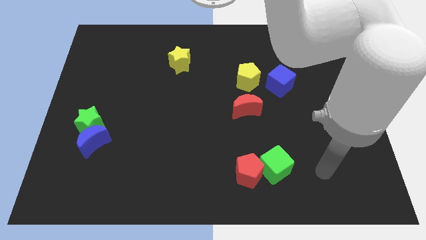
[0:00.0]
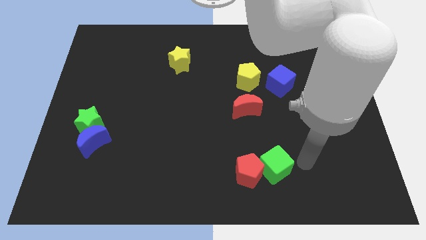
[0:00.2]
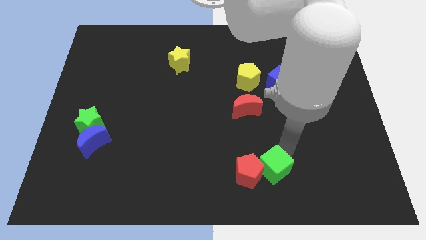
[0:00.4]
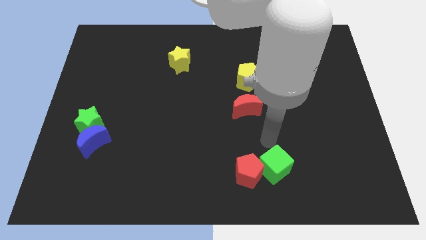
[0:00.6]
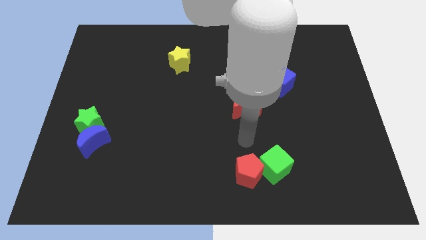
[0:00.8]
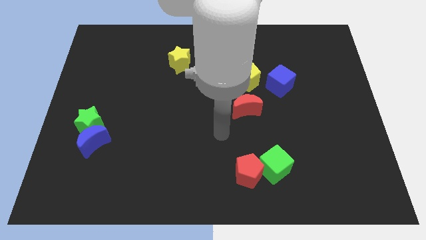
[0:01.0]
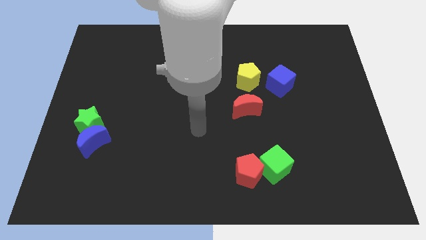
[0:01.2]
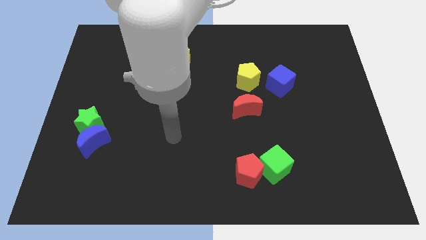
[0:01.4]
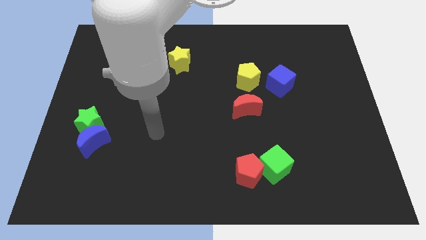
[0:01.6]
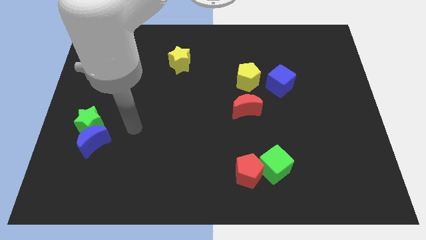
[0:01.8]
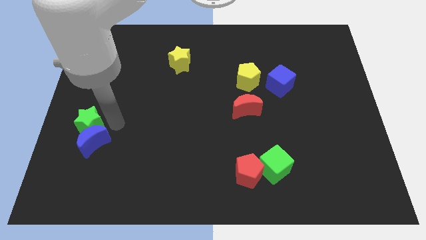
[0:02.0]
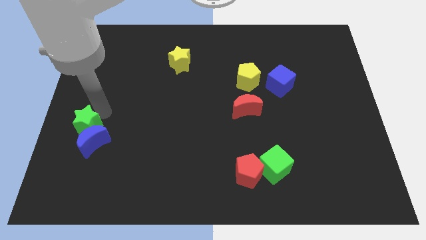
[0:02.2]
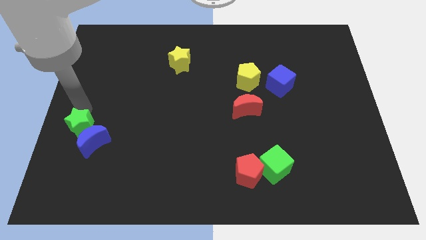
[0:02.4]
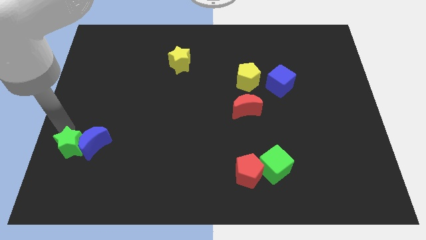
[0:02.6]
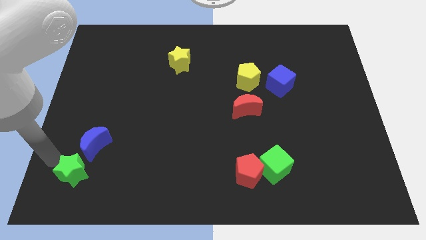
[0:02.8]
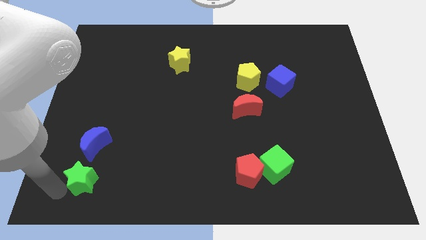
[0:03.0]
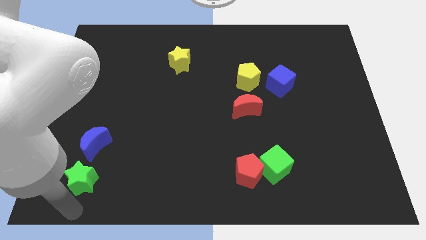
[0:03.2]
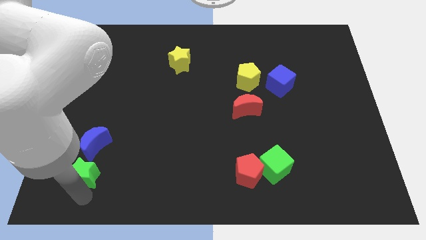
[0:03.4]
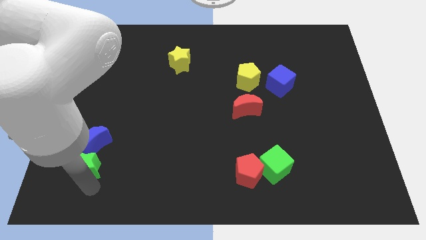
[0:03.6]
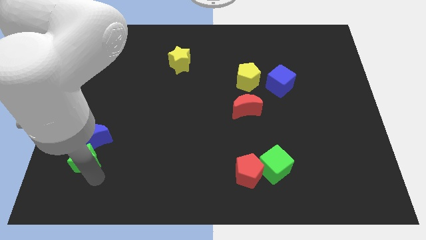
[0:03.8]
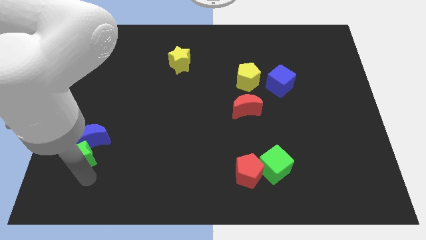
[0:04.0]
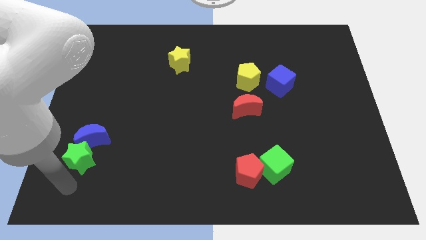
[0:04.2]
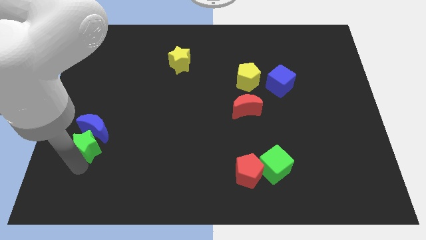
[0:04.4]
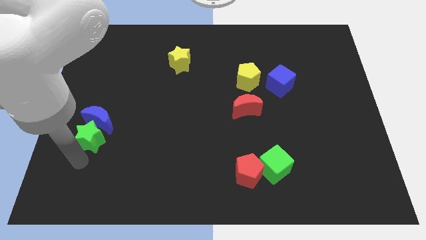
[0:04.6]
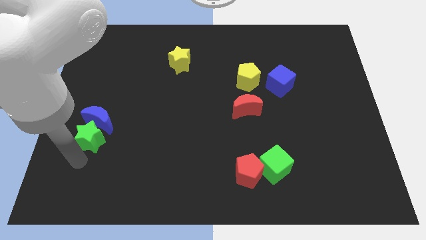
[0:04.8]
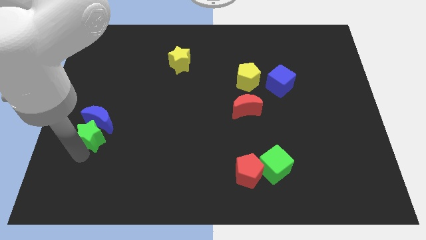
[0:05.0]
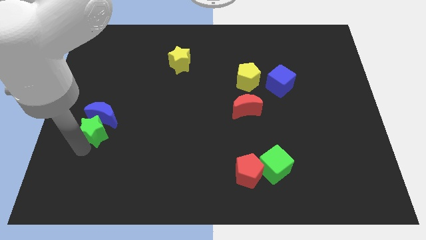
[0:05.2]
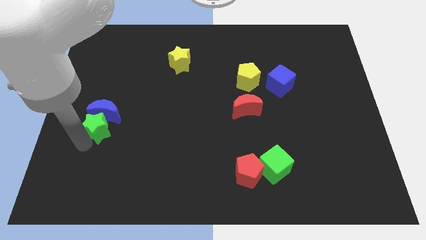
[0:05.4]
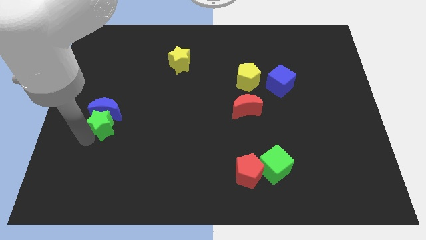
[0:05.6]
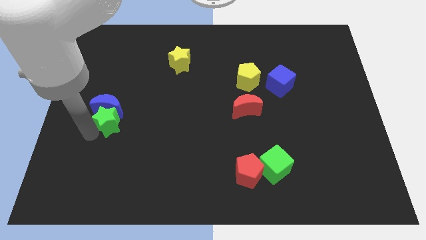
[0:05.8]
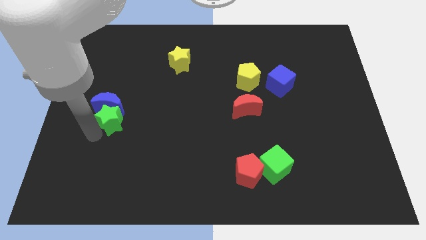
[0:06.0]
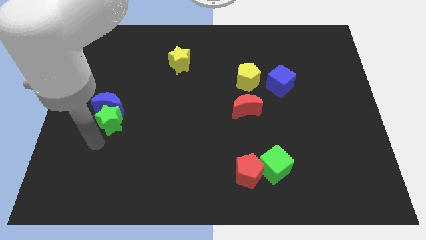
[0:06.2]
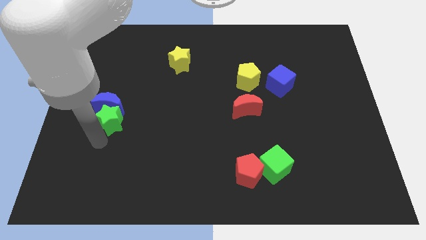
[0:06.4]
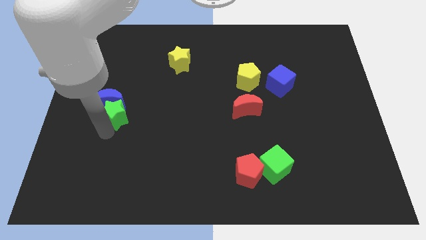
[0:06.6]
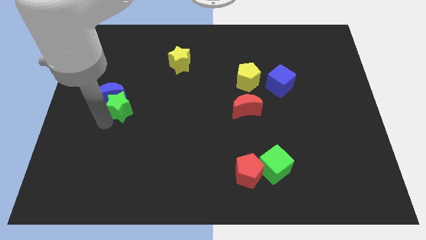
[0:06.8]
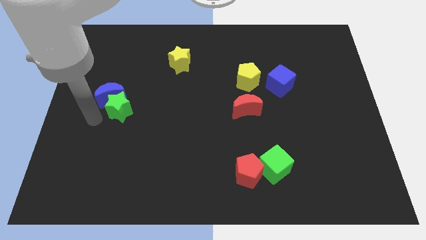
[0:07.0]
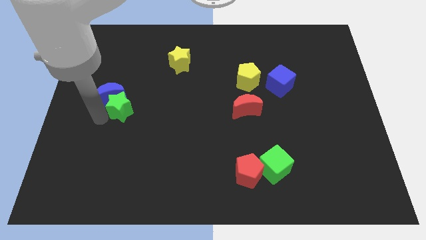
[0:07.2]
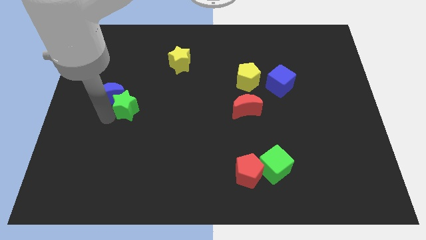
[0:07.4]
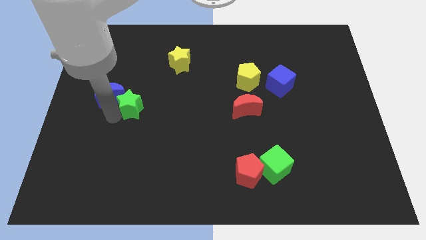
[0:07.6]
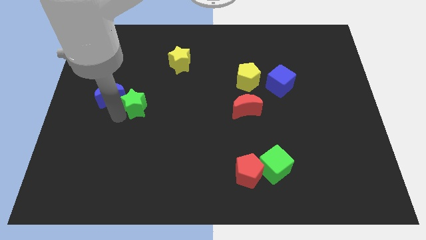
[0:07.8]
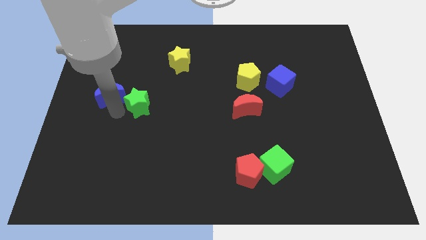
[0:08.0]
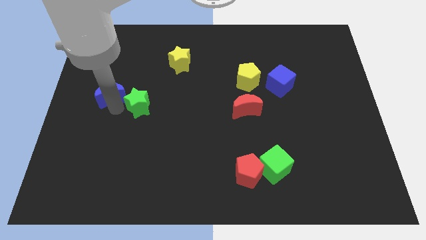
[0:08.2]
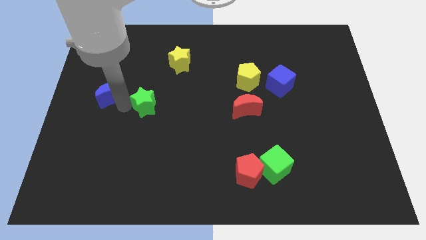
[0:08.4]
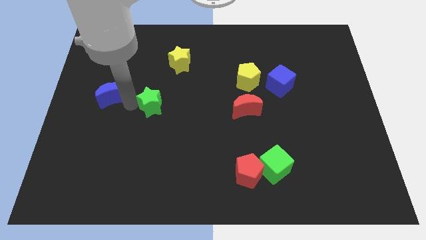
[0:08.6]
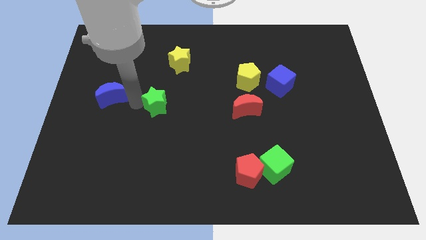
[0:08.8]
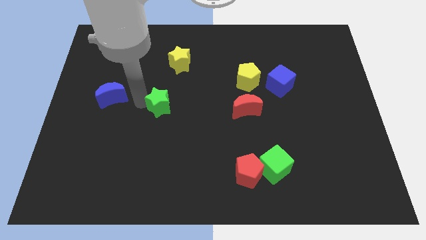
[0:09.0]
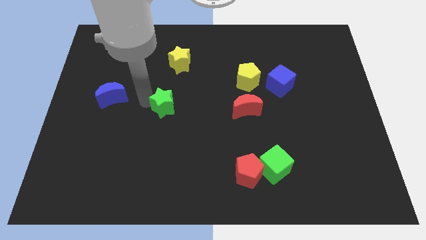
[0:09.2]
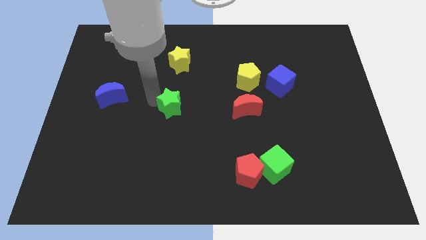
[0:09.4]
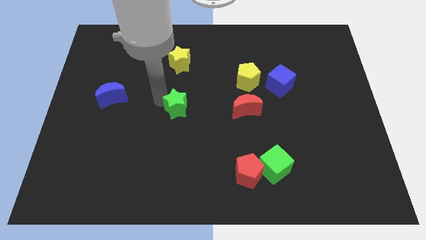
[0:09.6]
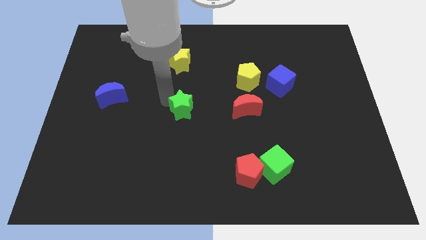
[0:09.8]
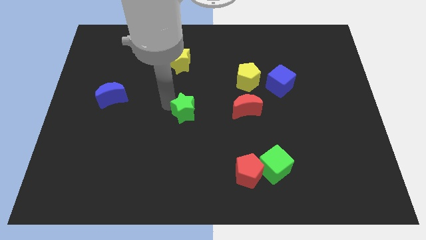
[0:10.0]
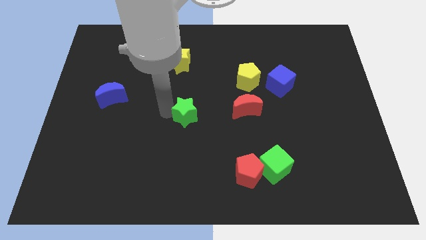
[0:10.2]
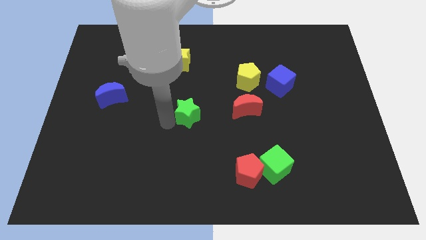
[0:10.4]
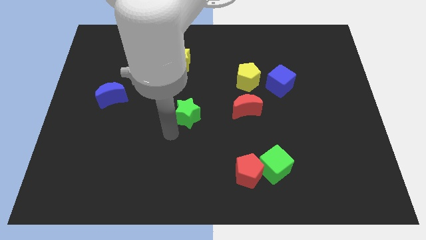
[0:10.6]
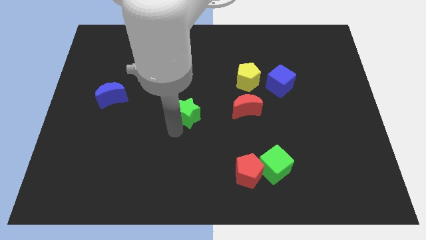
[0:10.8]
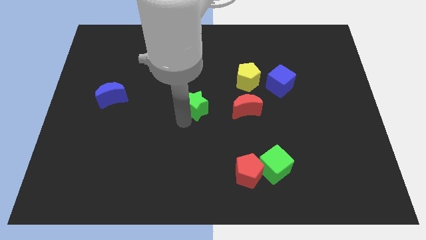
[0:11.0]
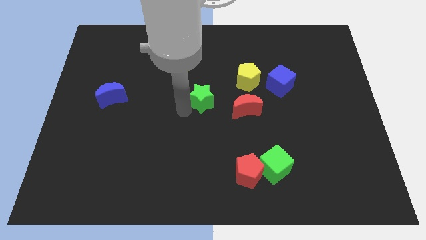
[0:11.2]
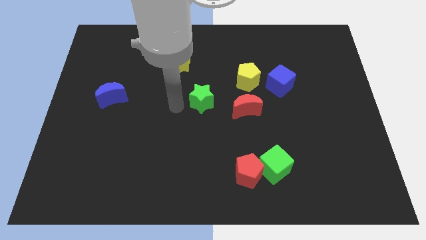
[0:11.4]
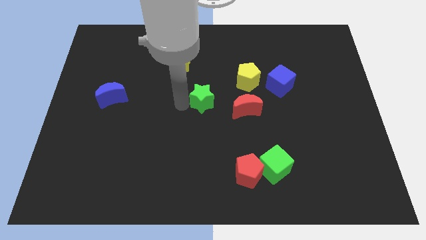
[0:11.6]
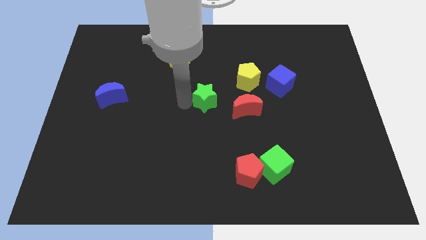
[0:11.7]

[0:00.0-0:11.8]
slide the green star to the bottom left of the yellow pentagon

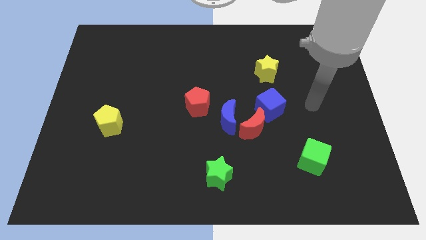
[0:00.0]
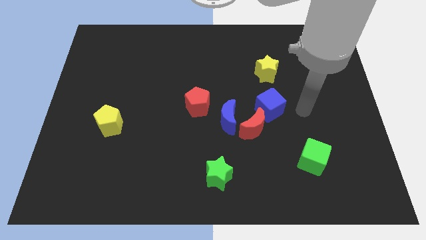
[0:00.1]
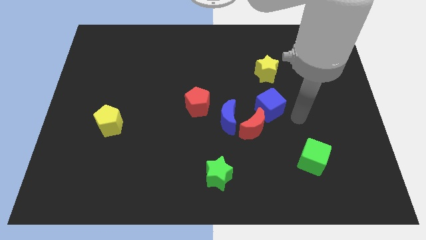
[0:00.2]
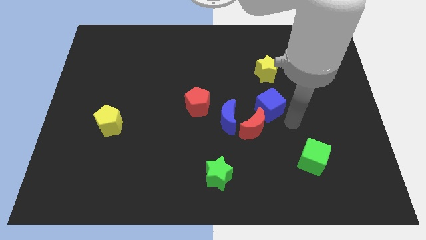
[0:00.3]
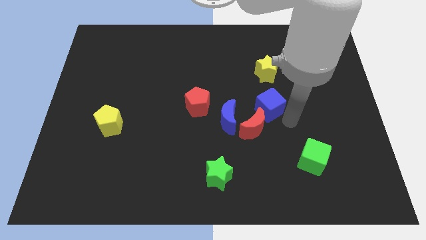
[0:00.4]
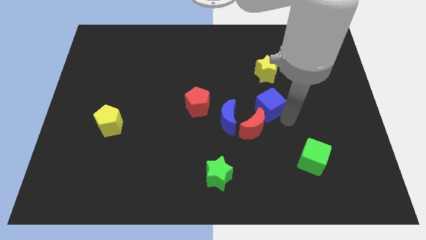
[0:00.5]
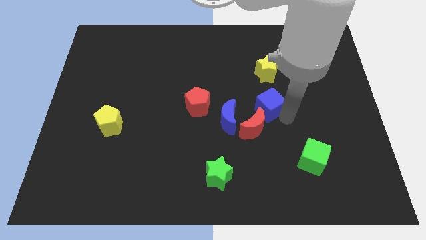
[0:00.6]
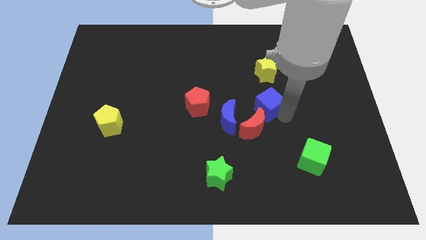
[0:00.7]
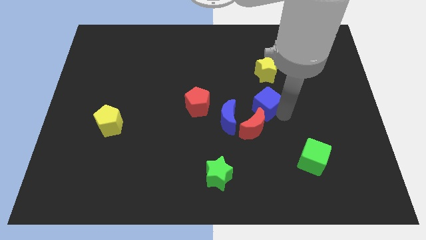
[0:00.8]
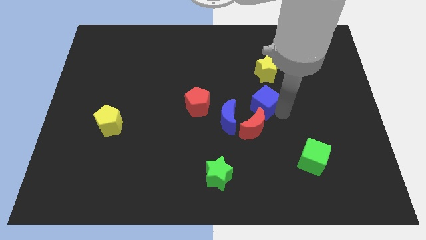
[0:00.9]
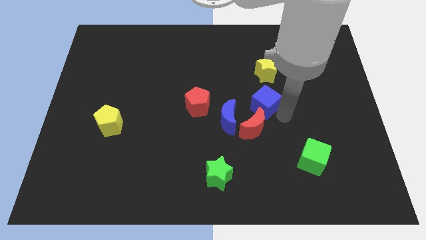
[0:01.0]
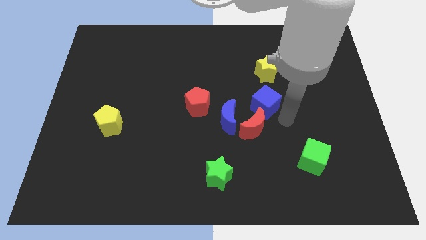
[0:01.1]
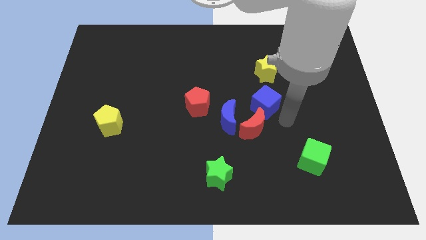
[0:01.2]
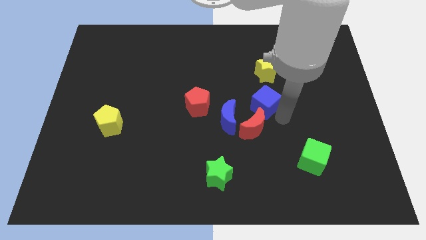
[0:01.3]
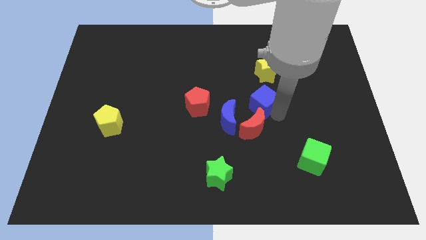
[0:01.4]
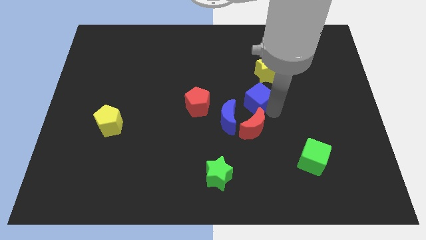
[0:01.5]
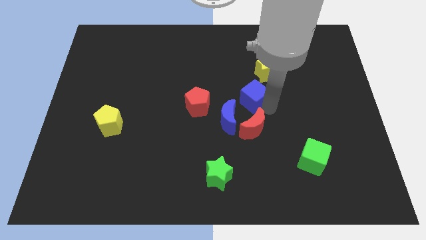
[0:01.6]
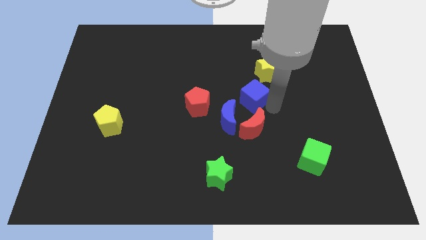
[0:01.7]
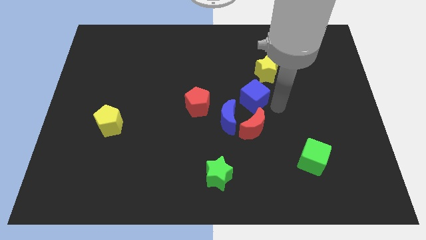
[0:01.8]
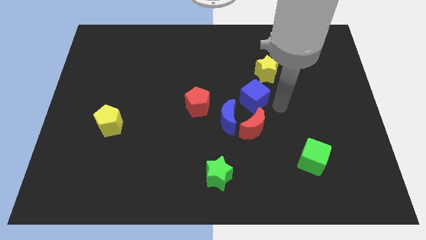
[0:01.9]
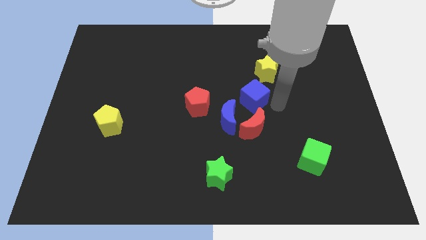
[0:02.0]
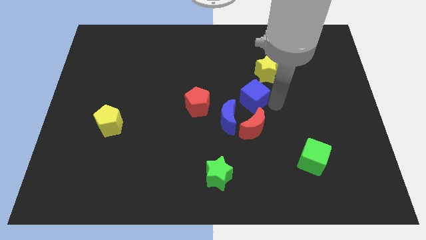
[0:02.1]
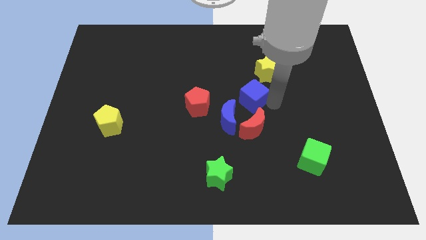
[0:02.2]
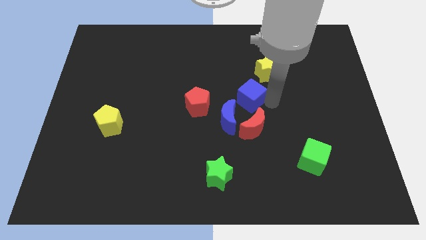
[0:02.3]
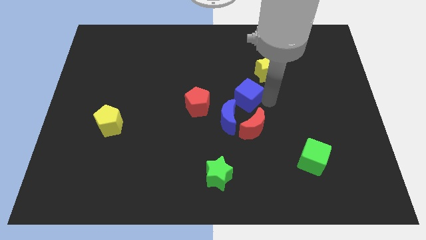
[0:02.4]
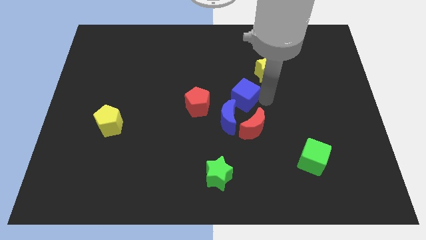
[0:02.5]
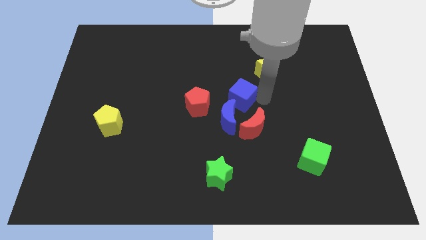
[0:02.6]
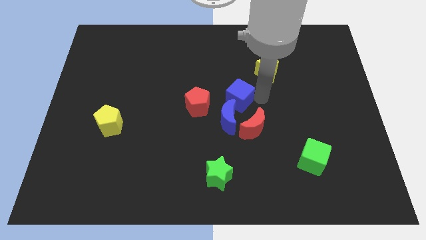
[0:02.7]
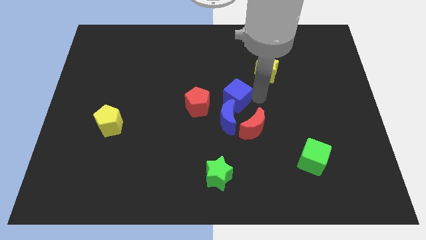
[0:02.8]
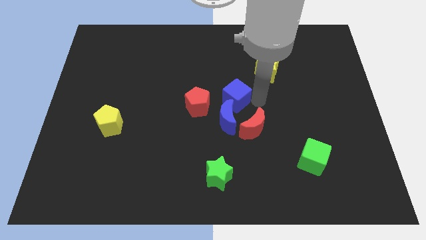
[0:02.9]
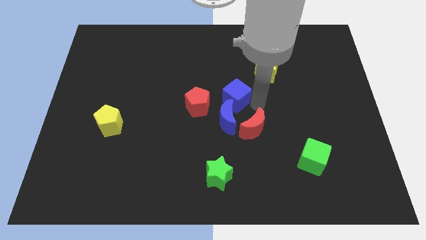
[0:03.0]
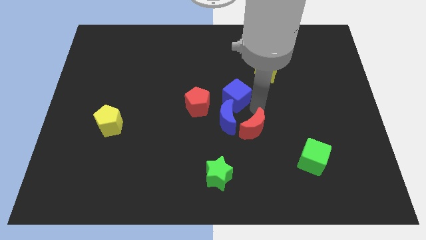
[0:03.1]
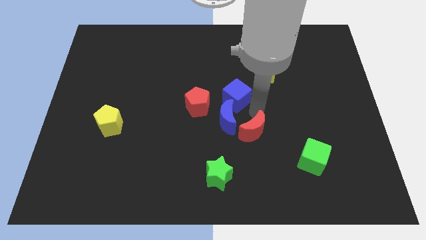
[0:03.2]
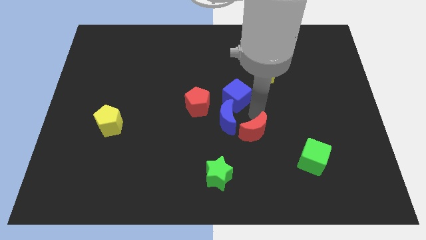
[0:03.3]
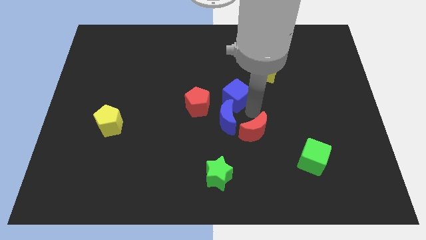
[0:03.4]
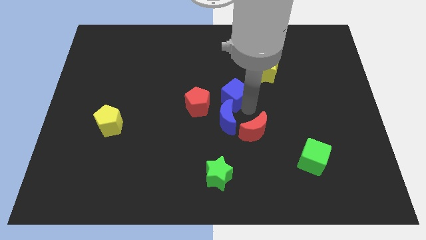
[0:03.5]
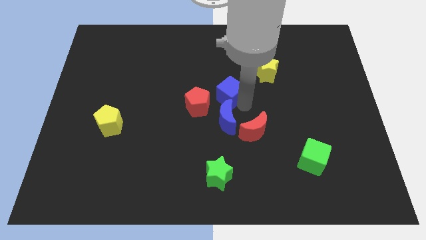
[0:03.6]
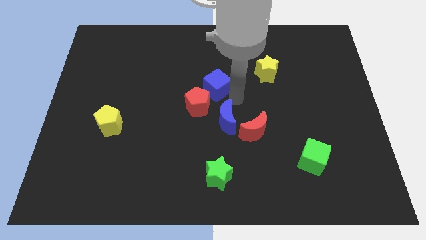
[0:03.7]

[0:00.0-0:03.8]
push the blue cube to the top side of the red pentagon
